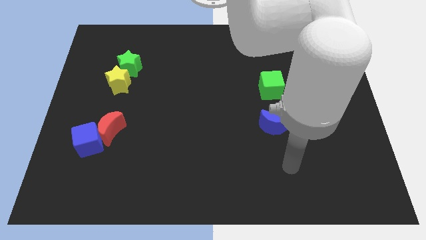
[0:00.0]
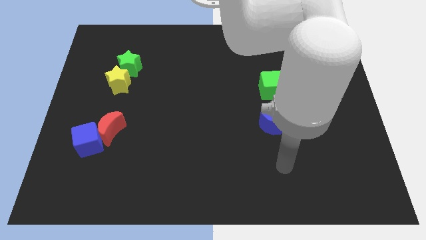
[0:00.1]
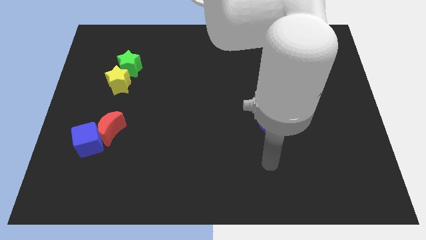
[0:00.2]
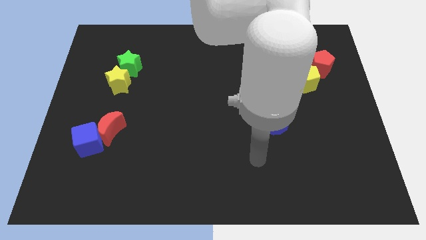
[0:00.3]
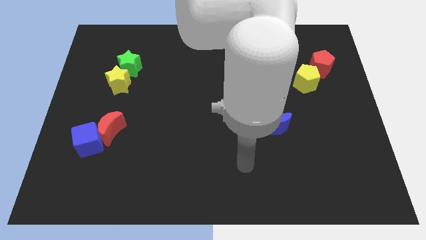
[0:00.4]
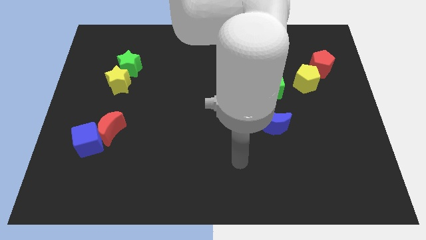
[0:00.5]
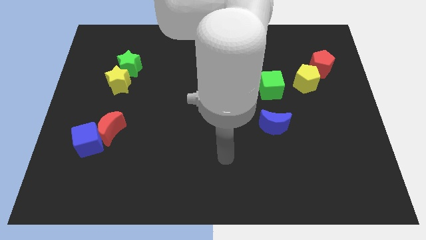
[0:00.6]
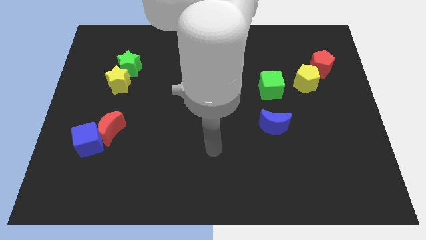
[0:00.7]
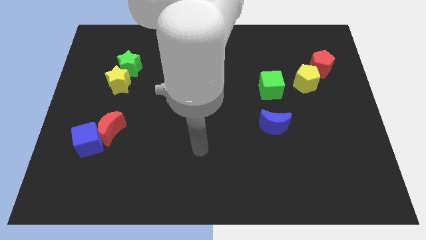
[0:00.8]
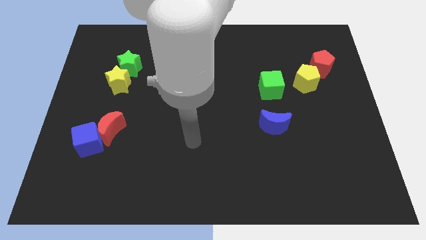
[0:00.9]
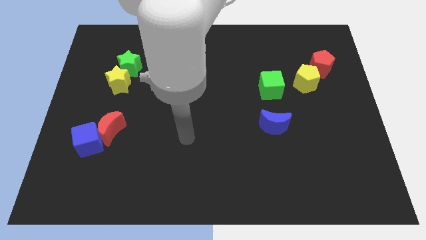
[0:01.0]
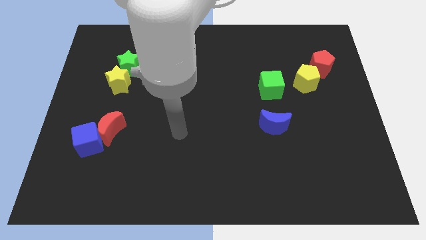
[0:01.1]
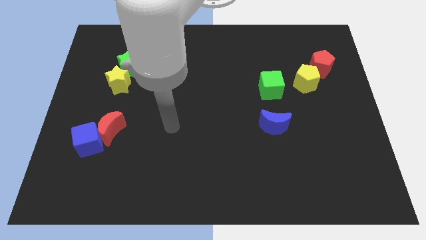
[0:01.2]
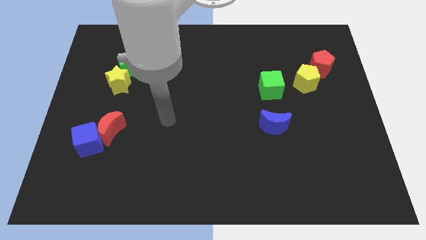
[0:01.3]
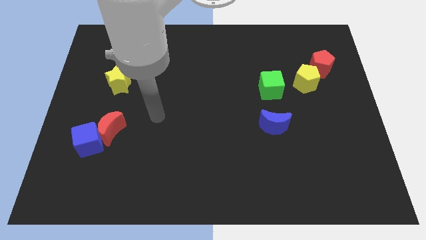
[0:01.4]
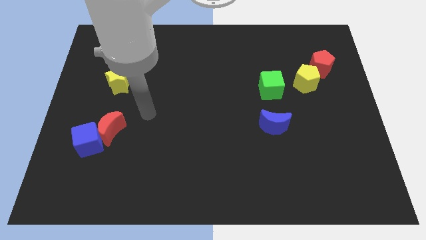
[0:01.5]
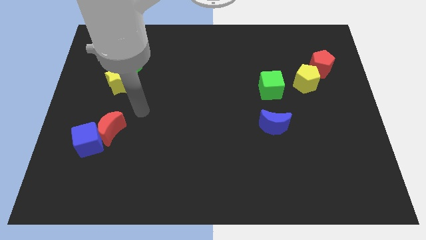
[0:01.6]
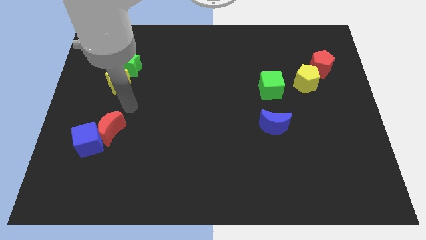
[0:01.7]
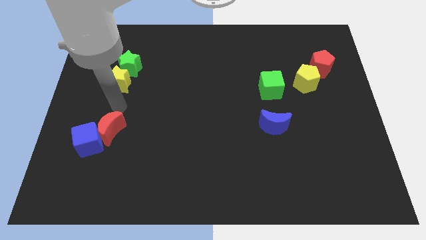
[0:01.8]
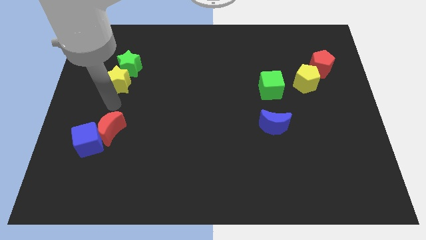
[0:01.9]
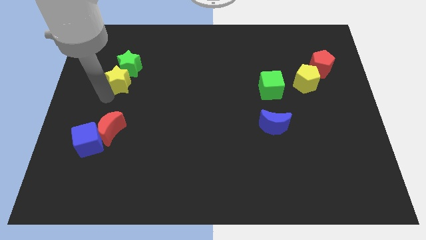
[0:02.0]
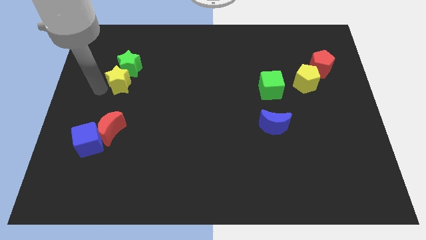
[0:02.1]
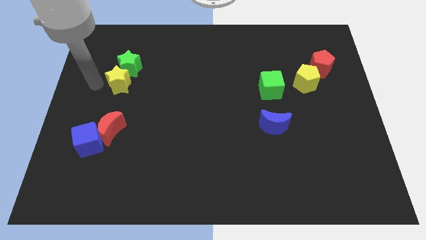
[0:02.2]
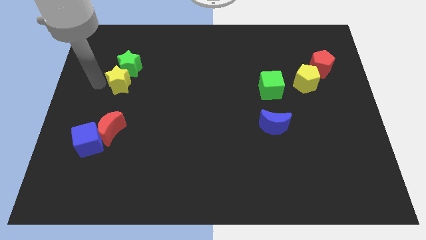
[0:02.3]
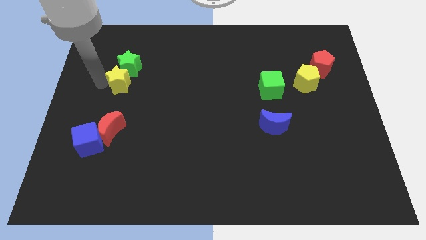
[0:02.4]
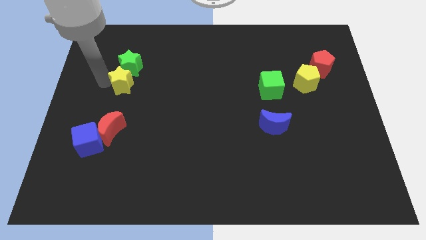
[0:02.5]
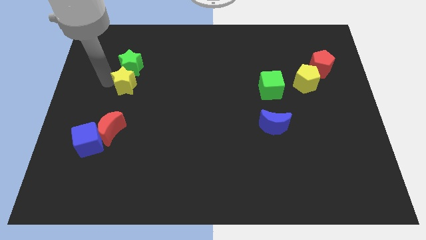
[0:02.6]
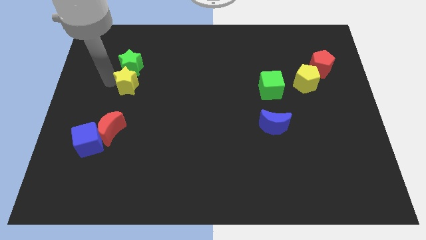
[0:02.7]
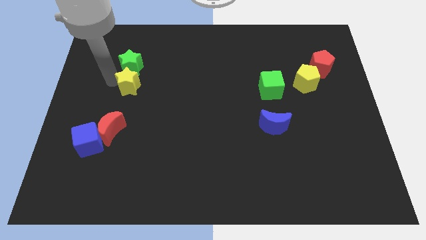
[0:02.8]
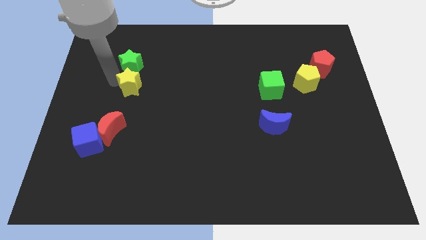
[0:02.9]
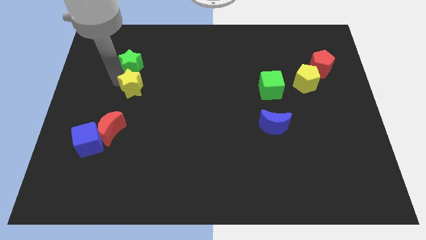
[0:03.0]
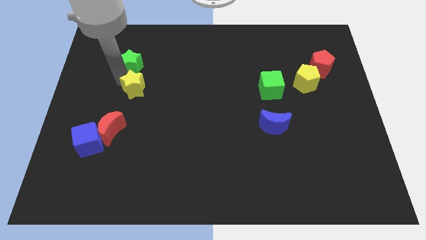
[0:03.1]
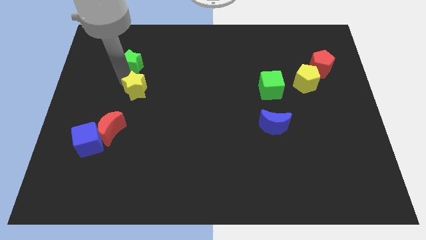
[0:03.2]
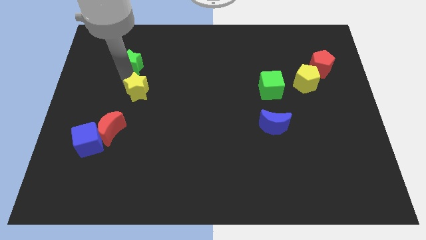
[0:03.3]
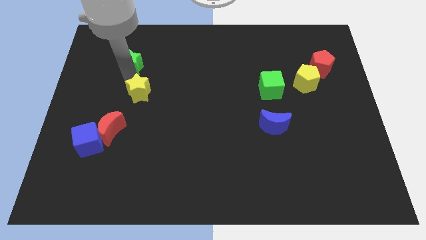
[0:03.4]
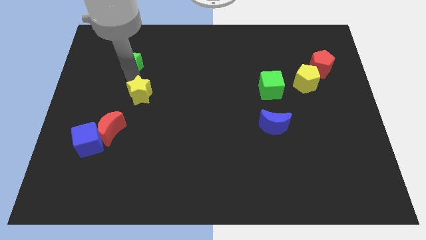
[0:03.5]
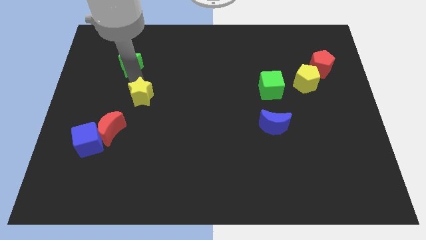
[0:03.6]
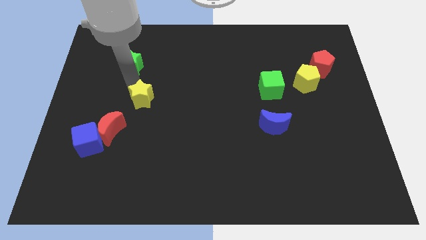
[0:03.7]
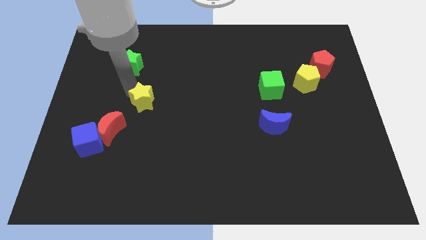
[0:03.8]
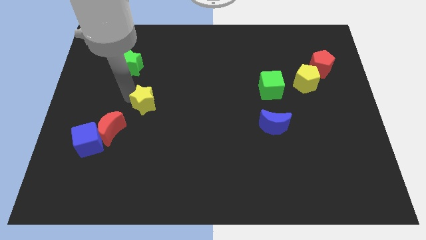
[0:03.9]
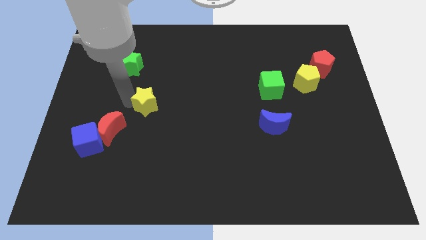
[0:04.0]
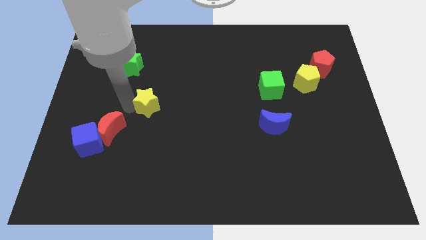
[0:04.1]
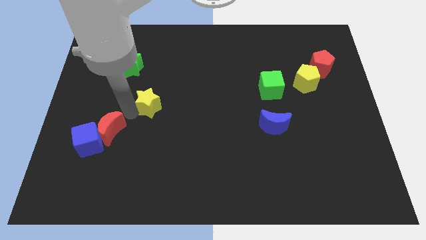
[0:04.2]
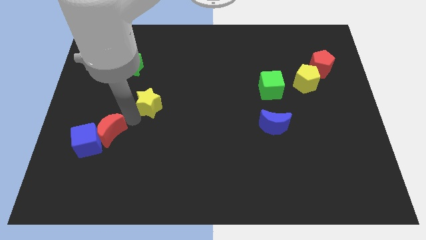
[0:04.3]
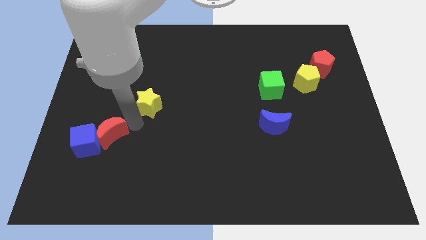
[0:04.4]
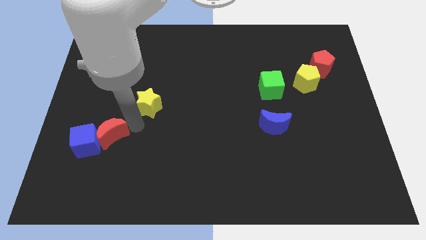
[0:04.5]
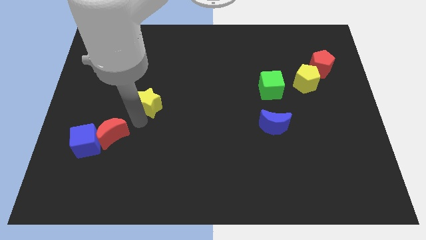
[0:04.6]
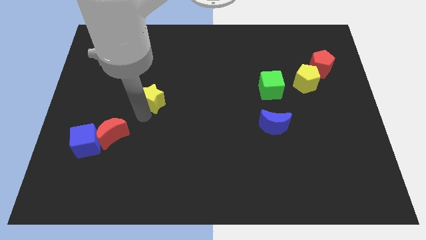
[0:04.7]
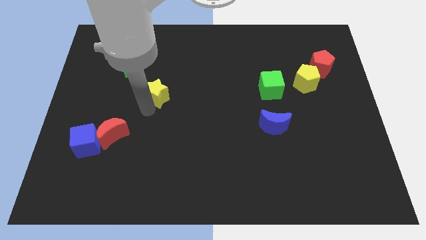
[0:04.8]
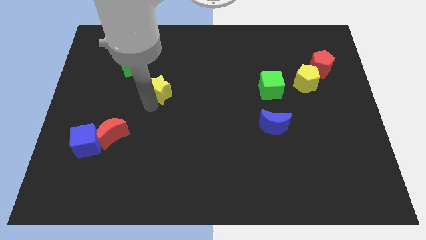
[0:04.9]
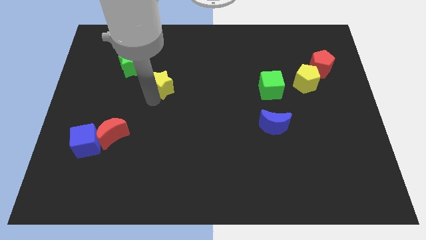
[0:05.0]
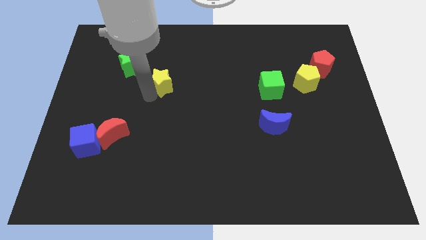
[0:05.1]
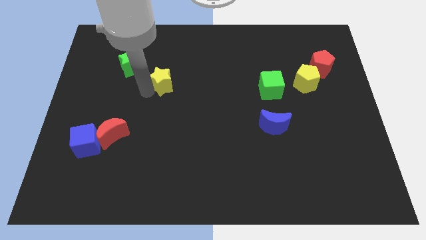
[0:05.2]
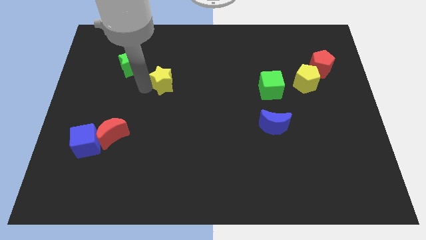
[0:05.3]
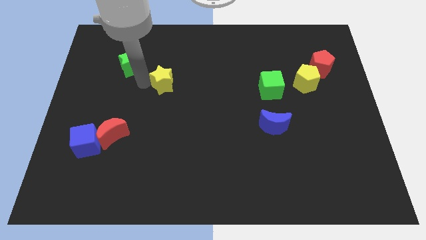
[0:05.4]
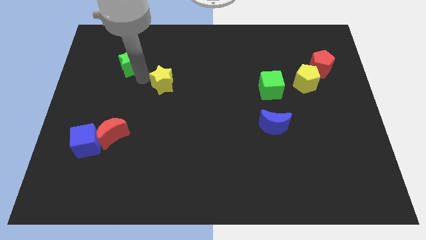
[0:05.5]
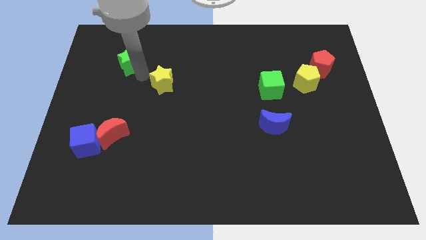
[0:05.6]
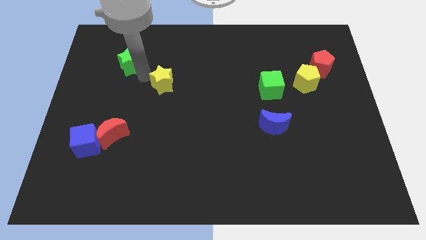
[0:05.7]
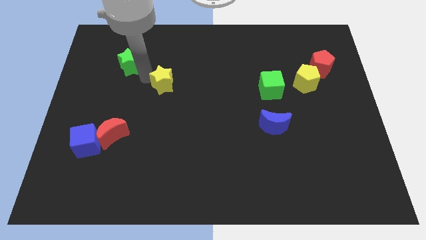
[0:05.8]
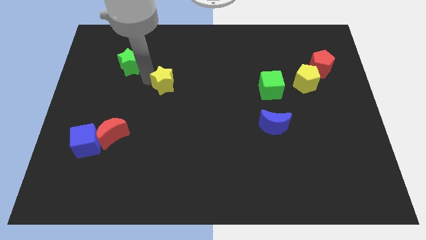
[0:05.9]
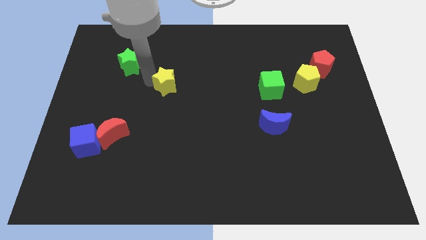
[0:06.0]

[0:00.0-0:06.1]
slide the yellow star to the middle
